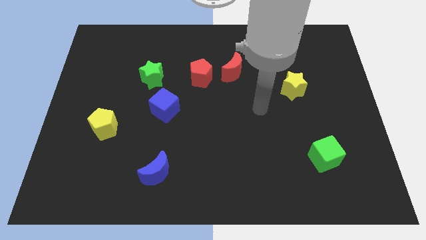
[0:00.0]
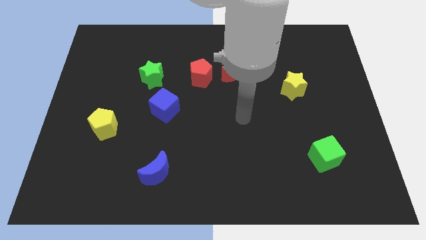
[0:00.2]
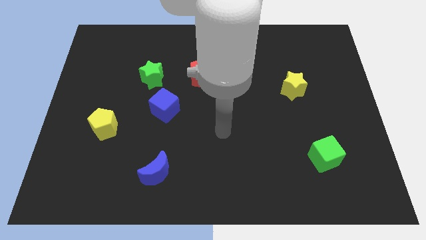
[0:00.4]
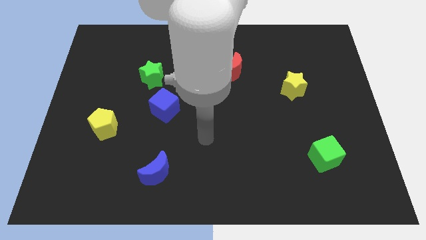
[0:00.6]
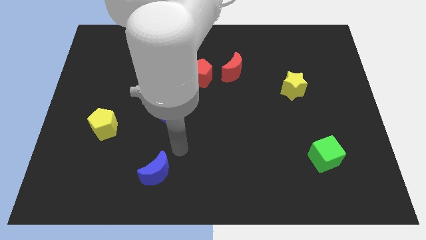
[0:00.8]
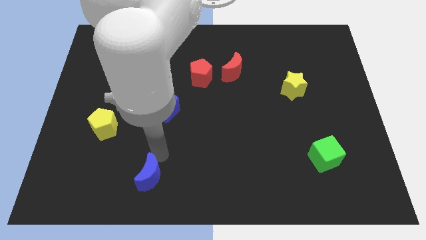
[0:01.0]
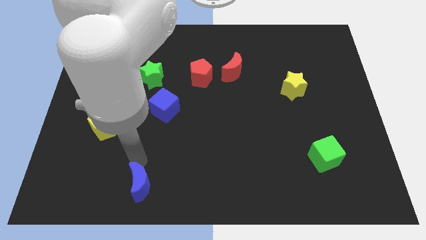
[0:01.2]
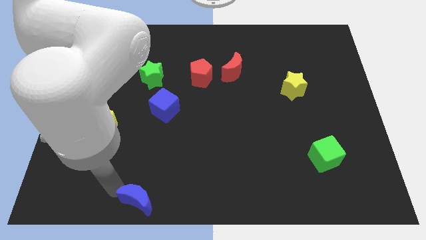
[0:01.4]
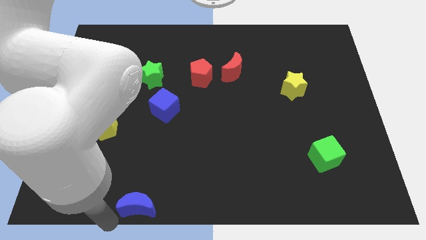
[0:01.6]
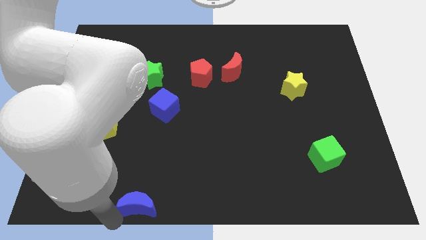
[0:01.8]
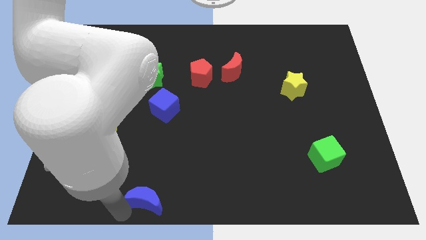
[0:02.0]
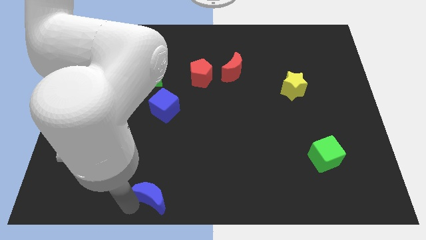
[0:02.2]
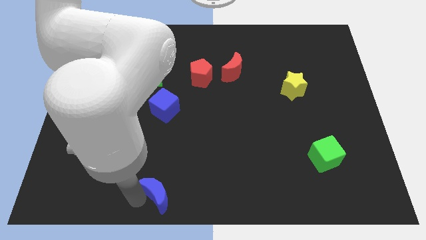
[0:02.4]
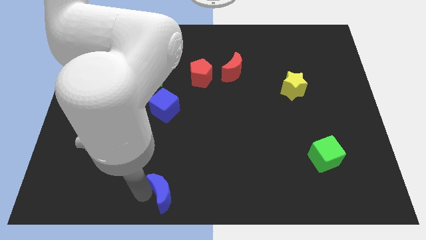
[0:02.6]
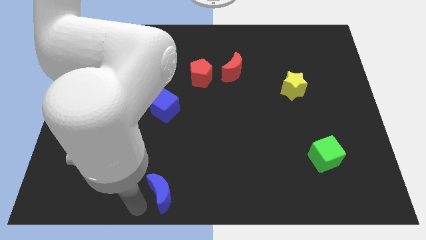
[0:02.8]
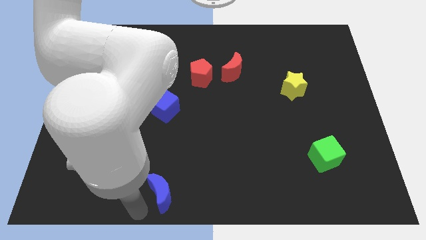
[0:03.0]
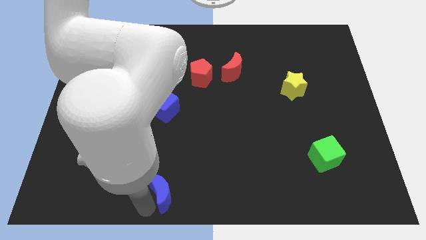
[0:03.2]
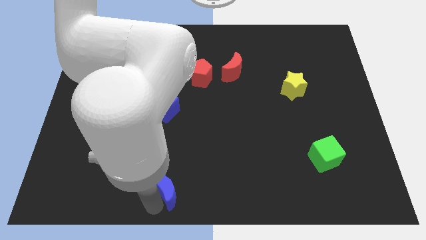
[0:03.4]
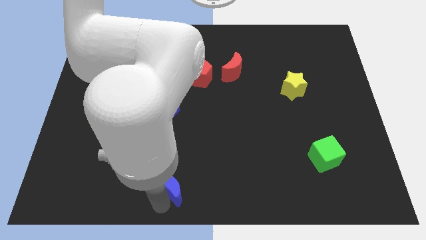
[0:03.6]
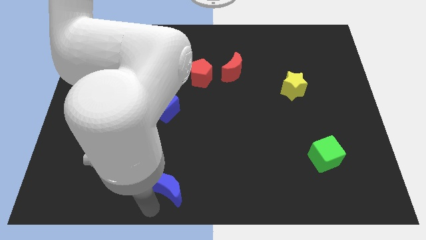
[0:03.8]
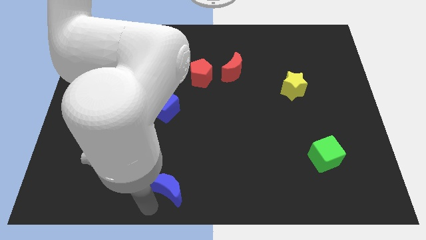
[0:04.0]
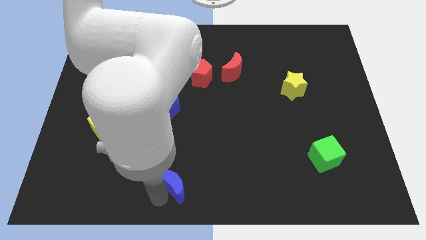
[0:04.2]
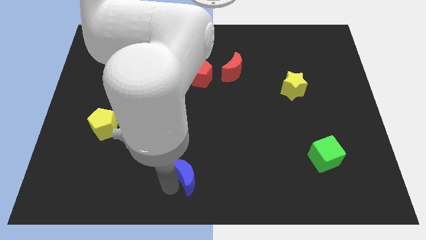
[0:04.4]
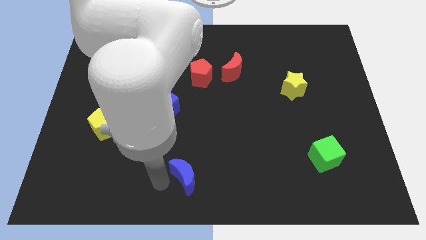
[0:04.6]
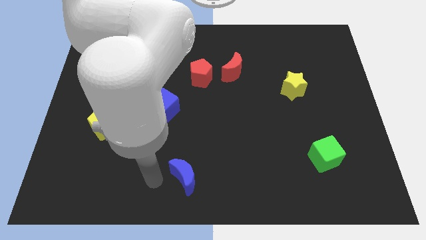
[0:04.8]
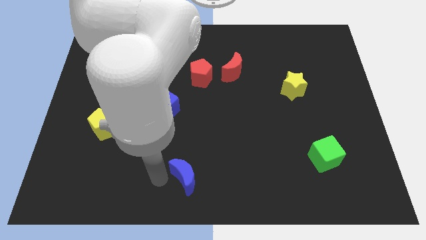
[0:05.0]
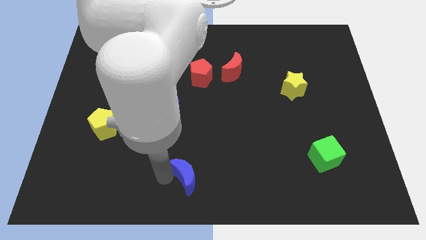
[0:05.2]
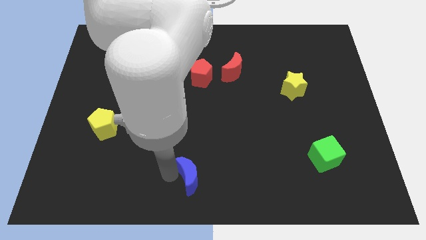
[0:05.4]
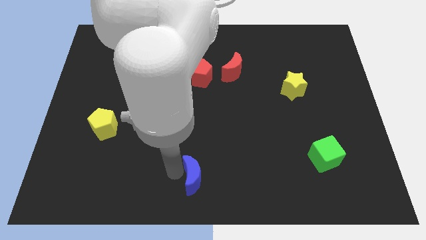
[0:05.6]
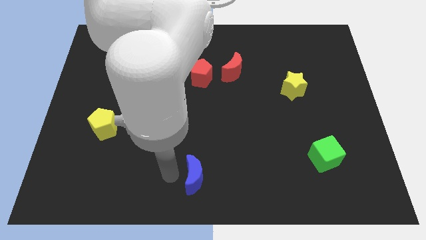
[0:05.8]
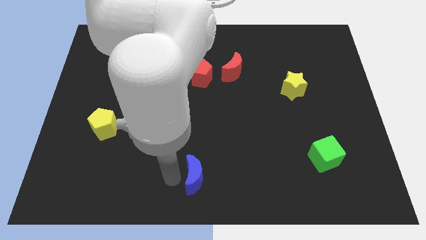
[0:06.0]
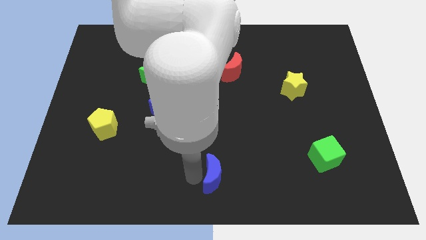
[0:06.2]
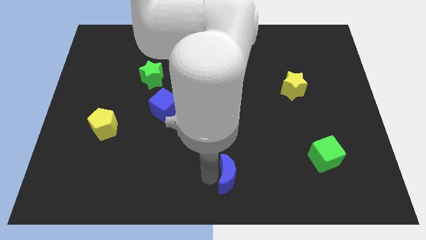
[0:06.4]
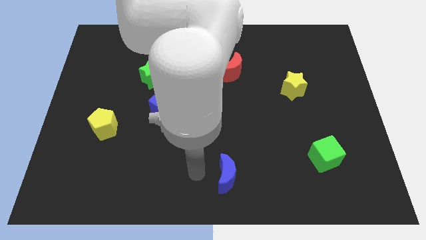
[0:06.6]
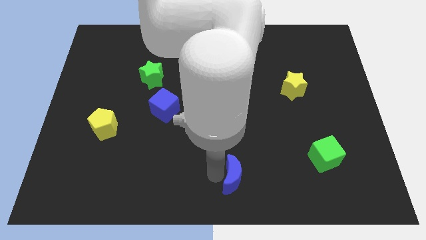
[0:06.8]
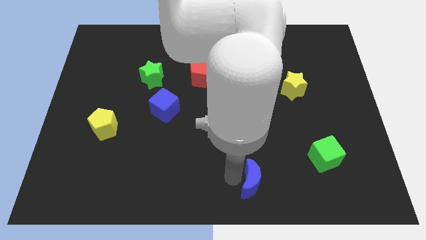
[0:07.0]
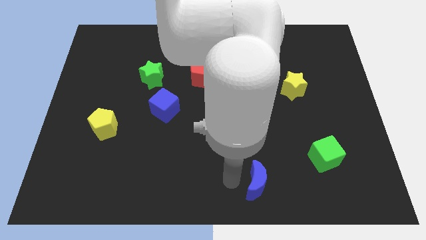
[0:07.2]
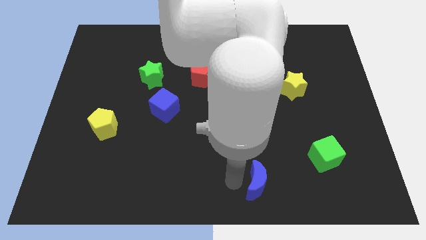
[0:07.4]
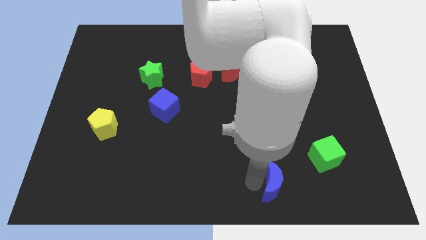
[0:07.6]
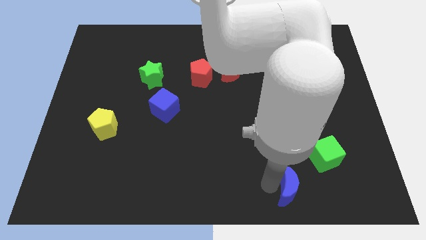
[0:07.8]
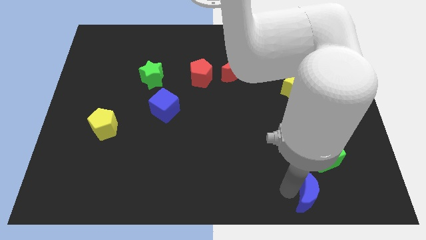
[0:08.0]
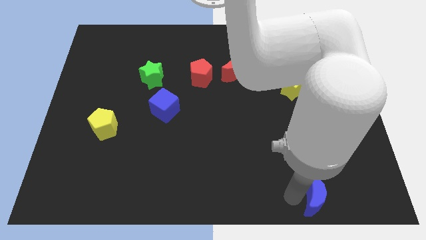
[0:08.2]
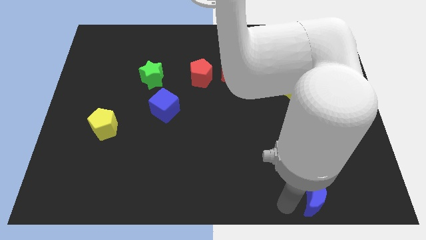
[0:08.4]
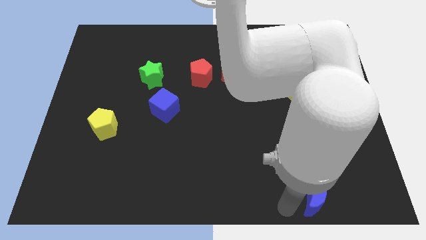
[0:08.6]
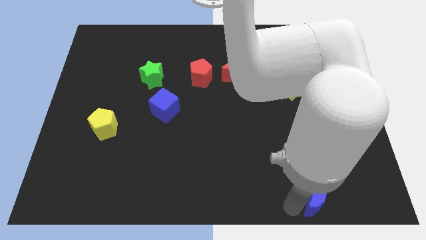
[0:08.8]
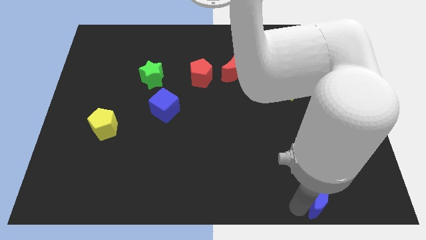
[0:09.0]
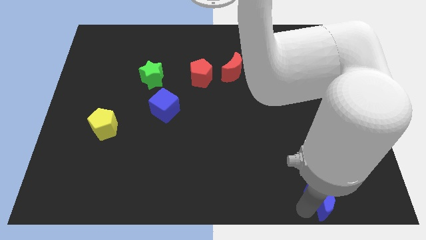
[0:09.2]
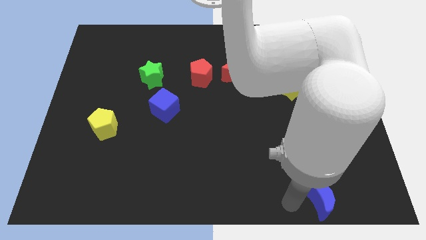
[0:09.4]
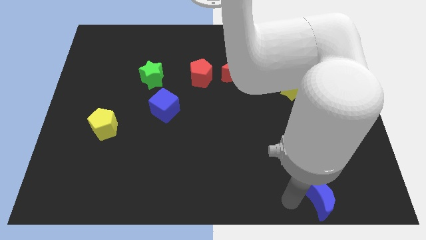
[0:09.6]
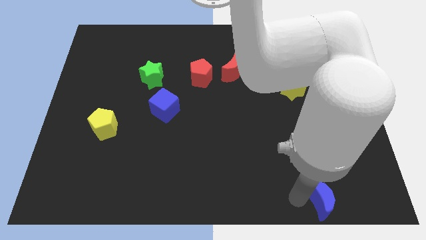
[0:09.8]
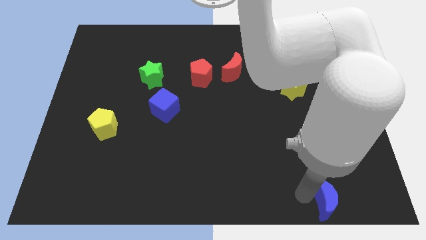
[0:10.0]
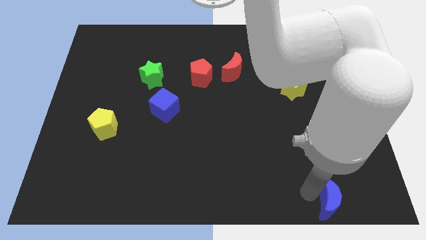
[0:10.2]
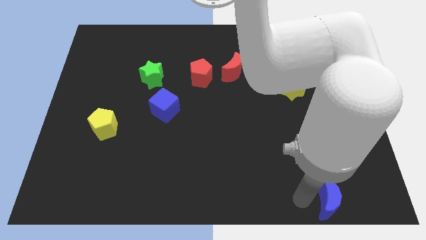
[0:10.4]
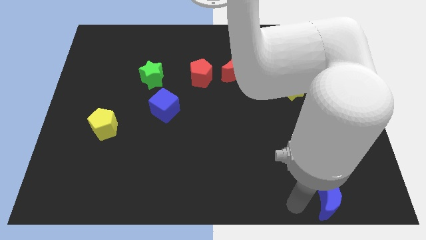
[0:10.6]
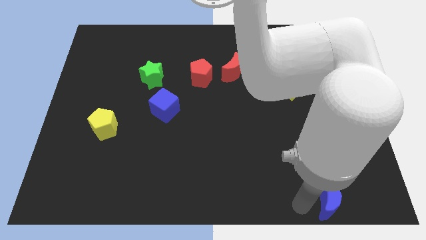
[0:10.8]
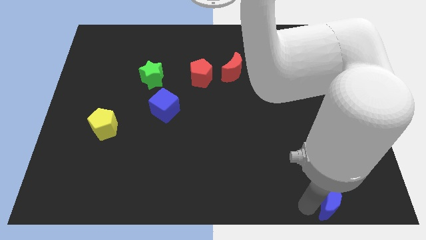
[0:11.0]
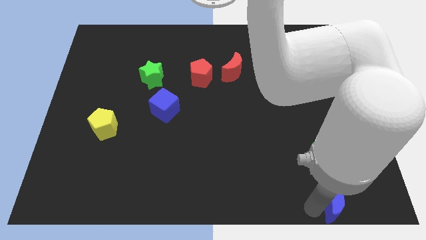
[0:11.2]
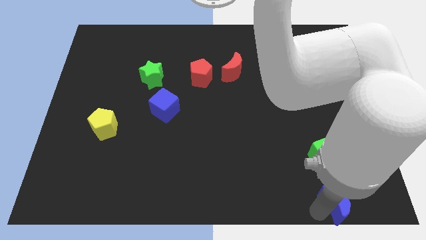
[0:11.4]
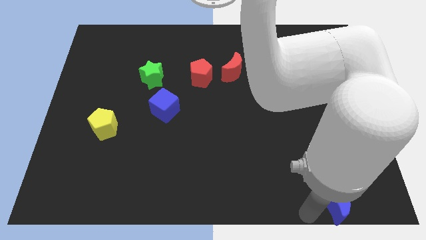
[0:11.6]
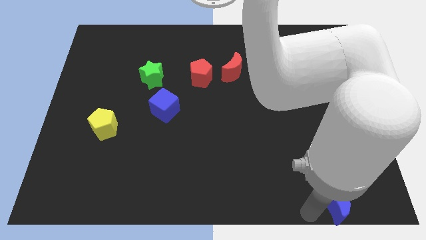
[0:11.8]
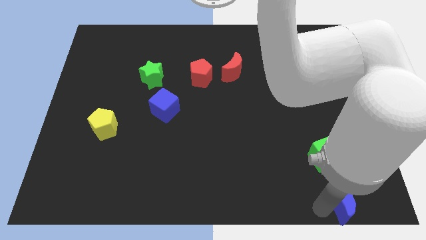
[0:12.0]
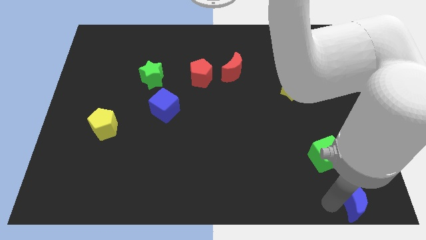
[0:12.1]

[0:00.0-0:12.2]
put the blue moon to the bottom right of the board
